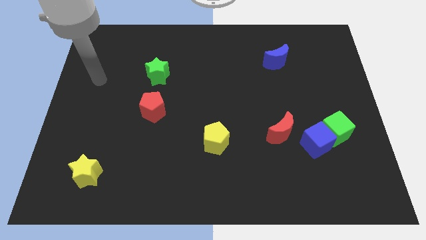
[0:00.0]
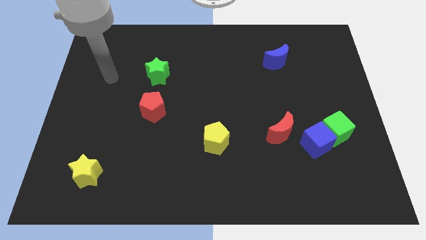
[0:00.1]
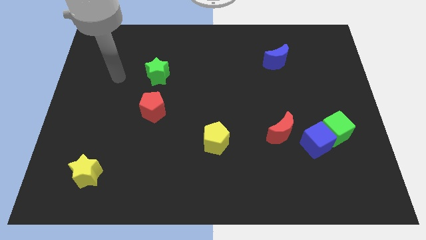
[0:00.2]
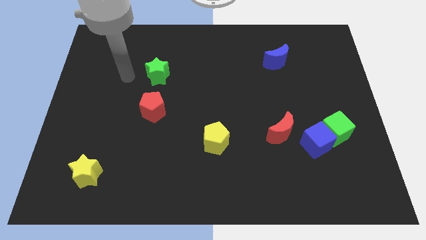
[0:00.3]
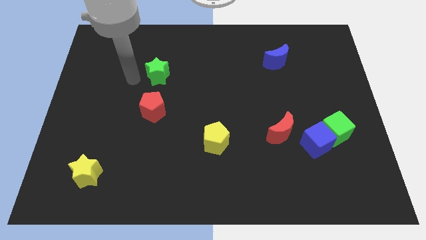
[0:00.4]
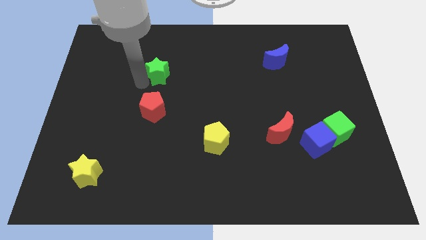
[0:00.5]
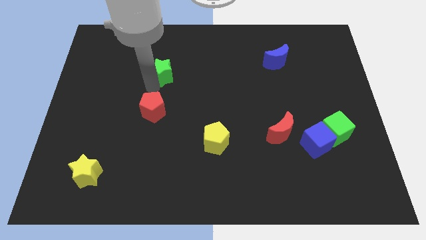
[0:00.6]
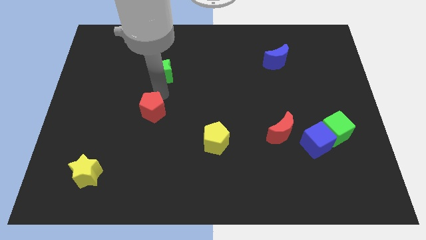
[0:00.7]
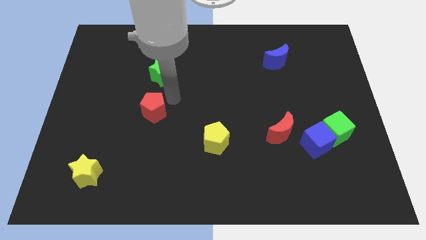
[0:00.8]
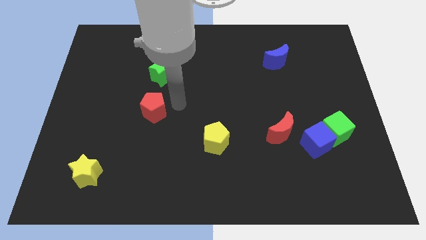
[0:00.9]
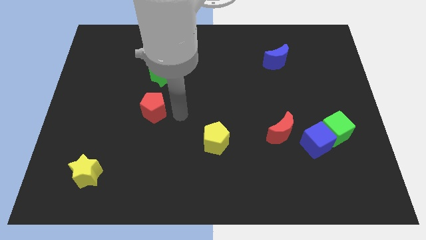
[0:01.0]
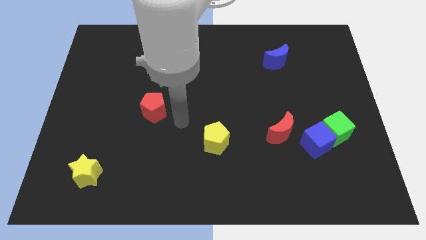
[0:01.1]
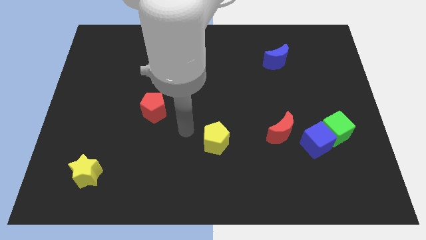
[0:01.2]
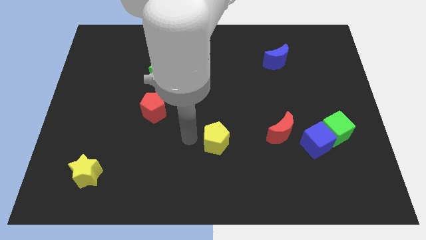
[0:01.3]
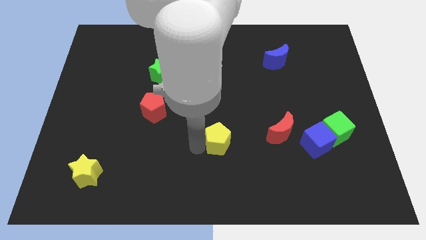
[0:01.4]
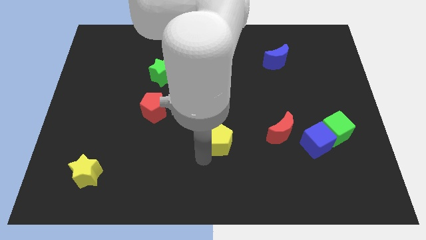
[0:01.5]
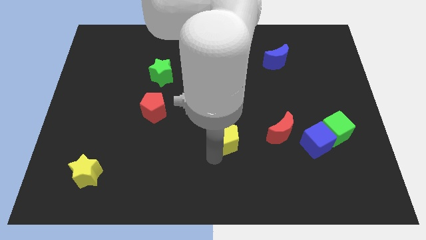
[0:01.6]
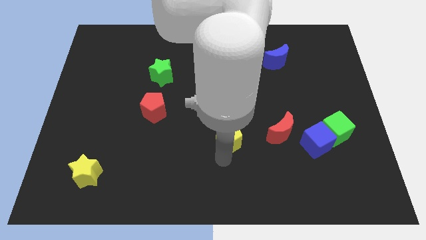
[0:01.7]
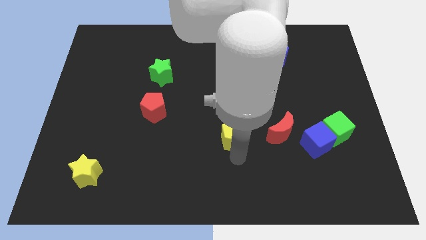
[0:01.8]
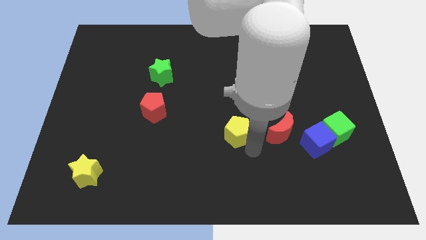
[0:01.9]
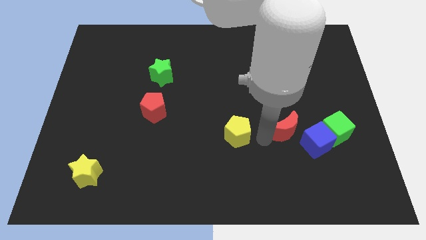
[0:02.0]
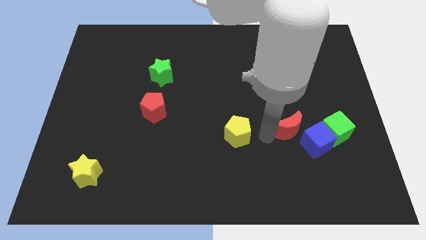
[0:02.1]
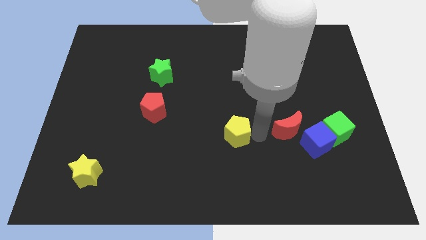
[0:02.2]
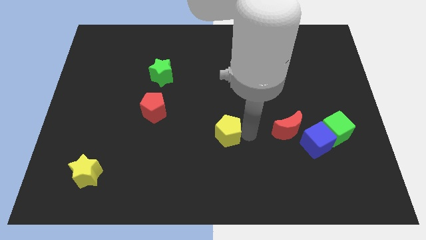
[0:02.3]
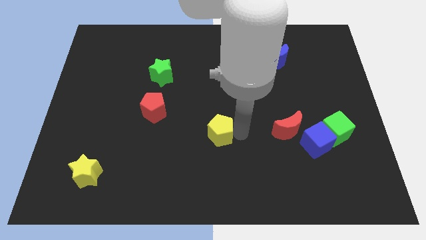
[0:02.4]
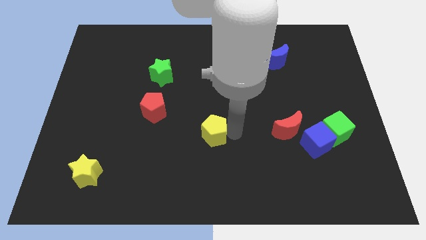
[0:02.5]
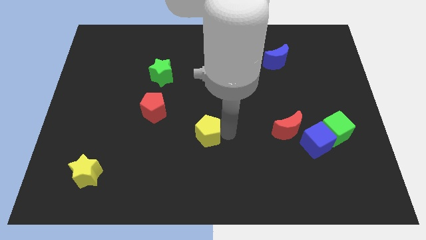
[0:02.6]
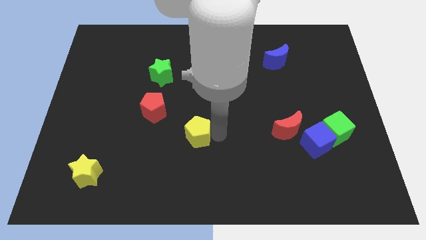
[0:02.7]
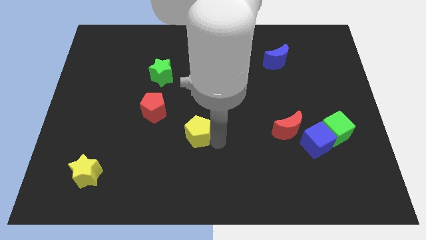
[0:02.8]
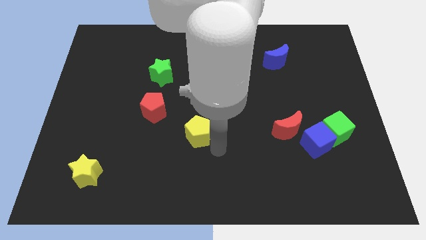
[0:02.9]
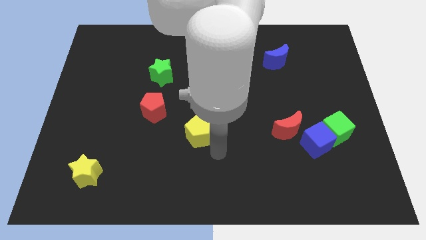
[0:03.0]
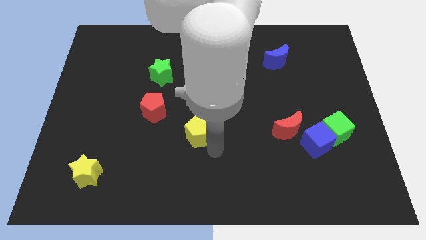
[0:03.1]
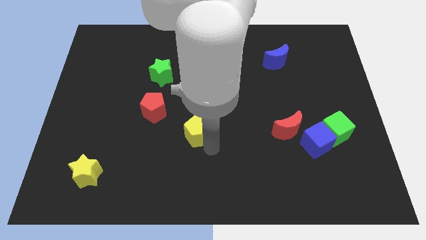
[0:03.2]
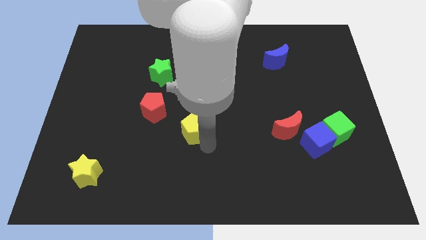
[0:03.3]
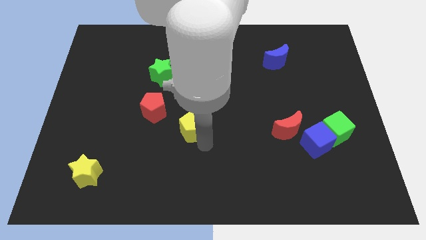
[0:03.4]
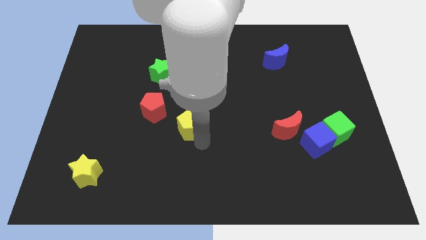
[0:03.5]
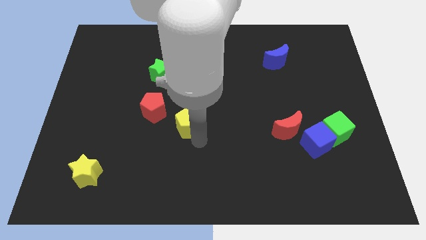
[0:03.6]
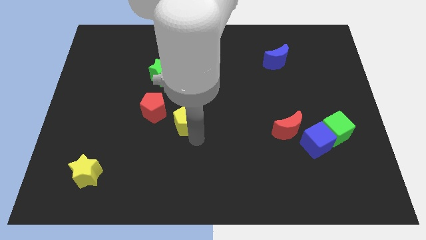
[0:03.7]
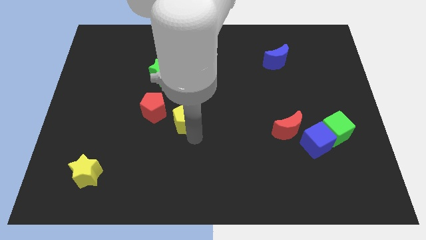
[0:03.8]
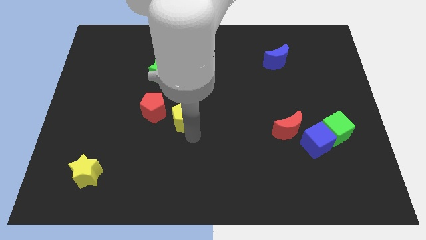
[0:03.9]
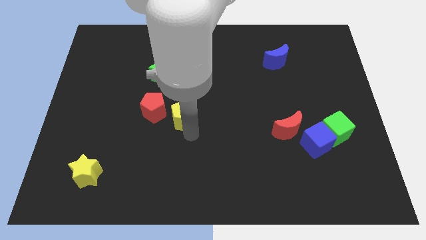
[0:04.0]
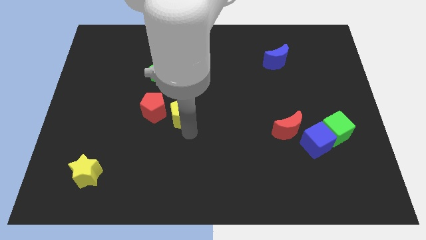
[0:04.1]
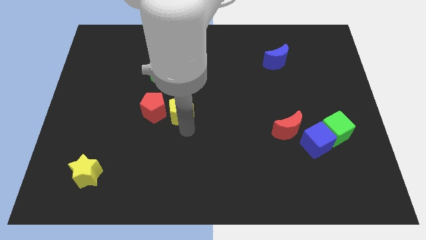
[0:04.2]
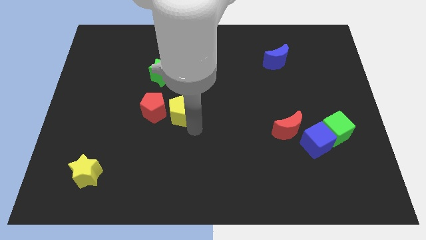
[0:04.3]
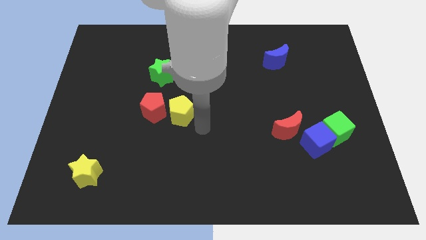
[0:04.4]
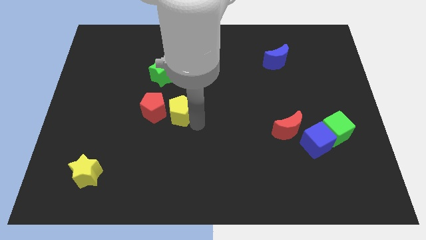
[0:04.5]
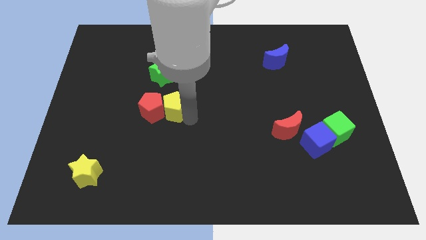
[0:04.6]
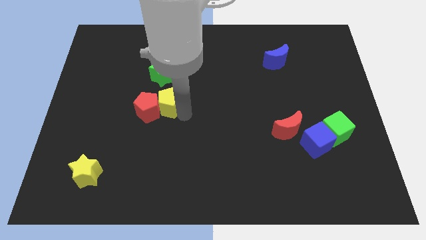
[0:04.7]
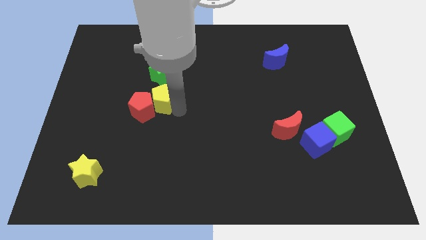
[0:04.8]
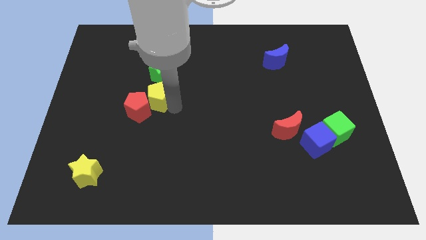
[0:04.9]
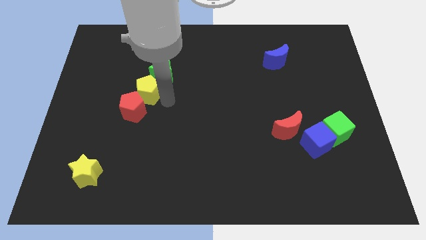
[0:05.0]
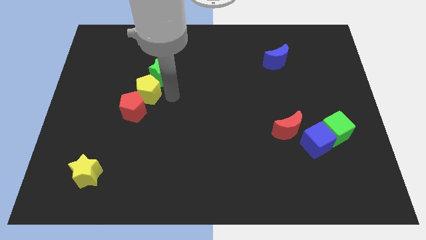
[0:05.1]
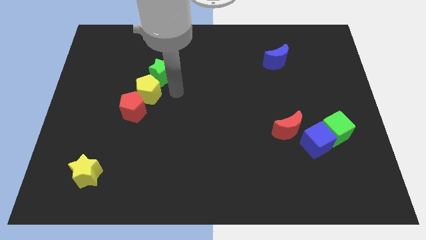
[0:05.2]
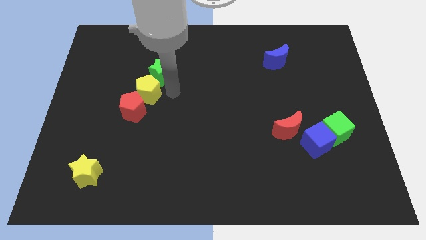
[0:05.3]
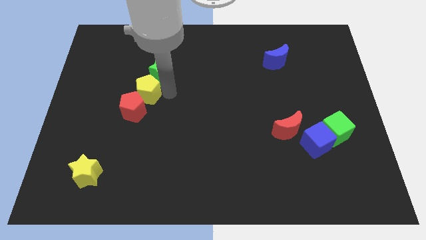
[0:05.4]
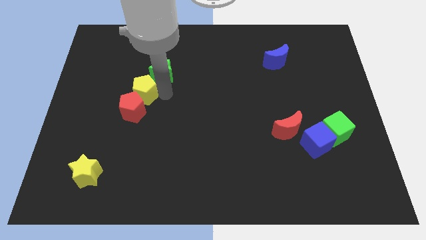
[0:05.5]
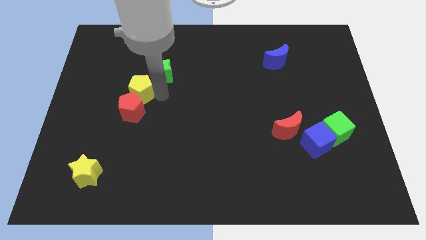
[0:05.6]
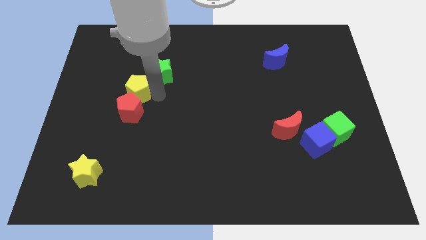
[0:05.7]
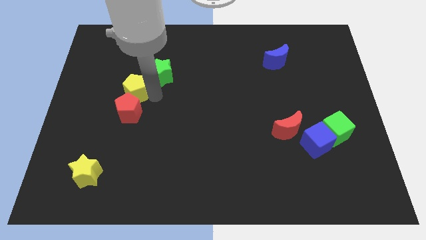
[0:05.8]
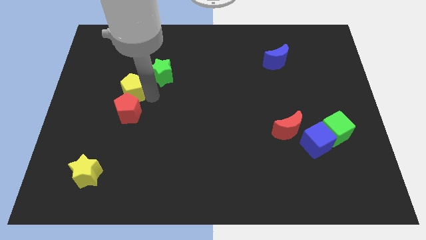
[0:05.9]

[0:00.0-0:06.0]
put the yellow pentagon diagonally up and to the left of the red pentagon

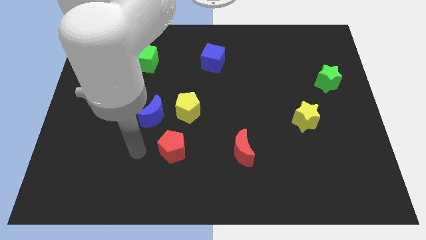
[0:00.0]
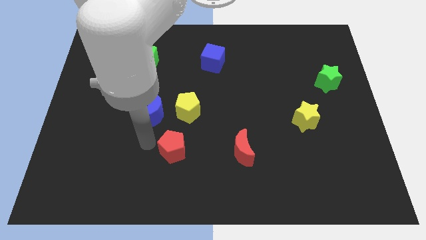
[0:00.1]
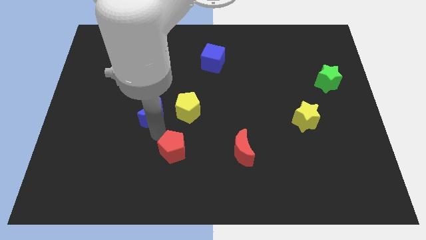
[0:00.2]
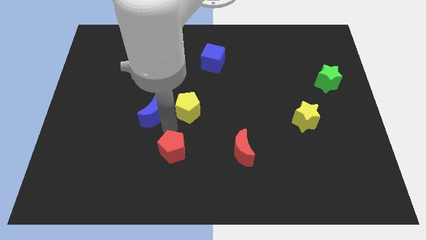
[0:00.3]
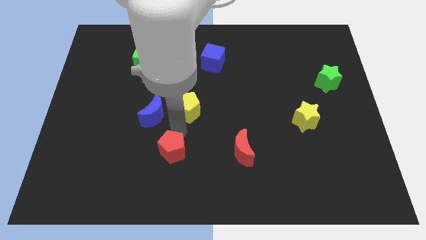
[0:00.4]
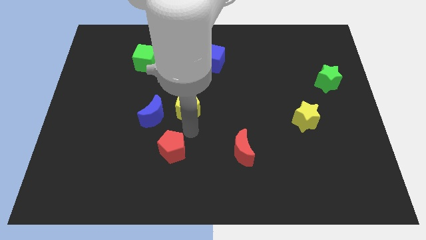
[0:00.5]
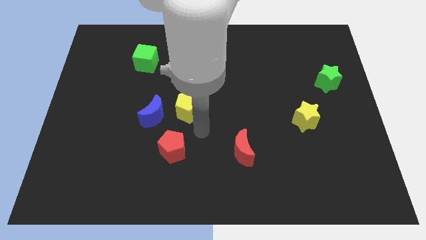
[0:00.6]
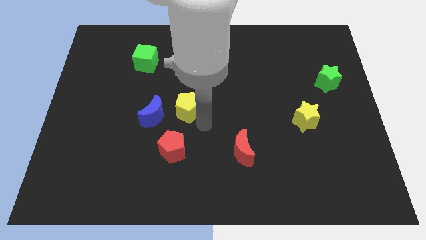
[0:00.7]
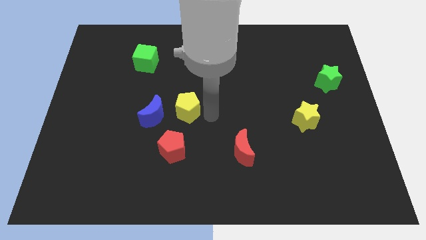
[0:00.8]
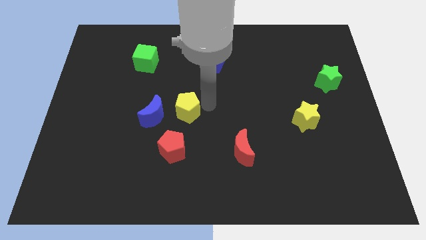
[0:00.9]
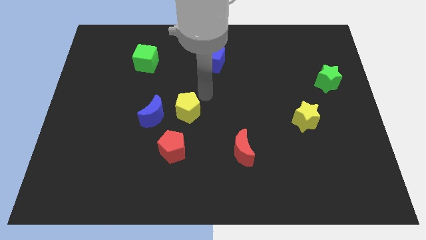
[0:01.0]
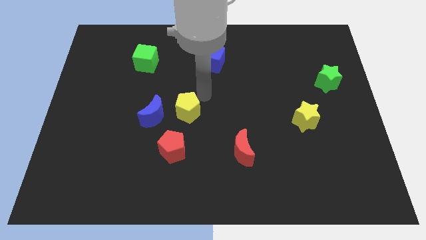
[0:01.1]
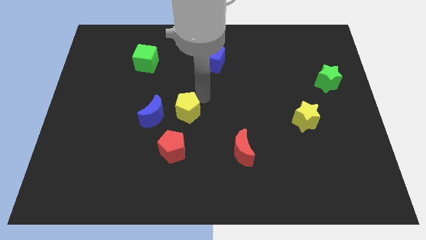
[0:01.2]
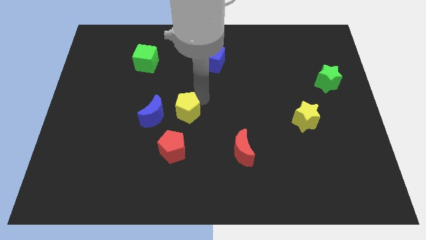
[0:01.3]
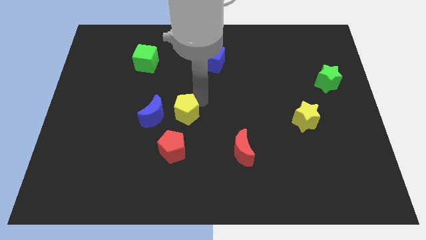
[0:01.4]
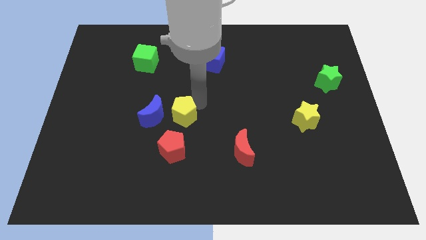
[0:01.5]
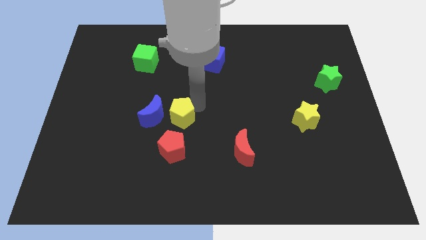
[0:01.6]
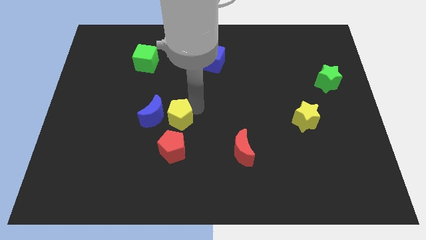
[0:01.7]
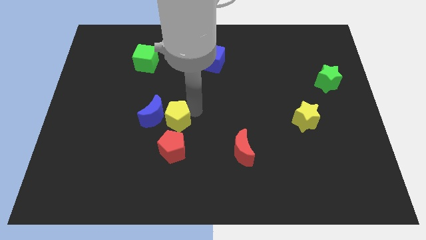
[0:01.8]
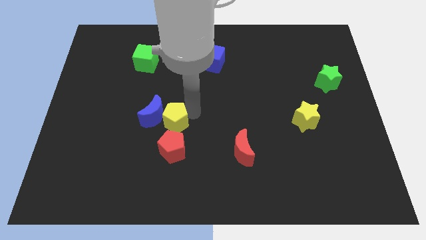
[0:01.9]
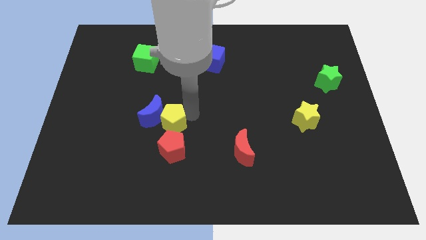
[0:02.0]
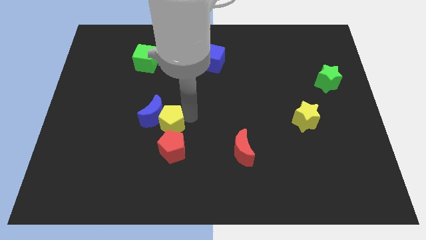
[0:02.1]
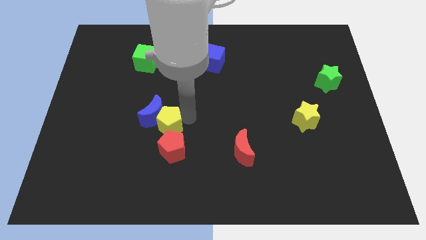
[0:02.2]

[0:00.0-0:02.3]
slide the yellow pentagon to the bottom side of the blue moon

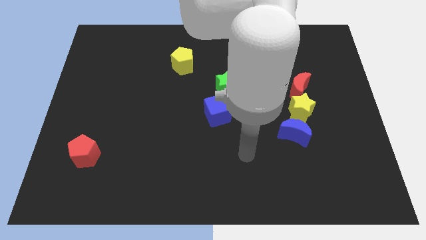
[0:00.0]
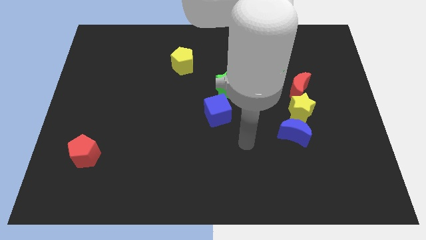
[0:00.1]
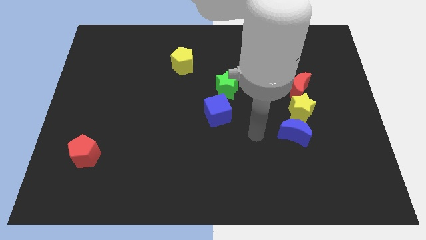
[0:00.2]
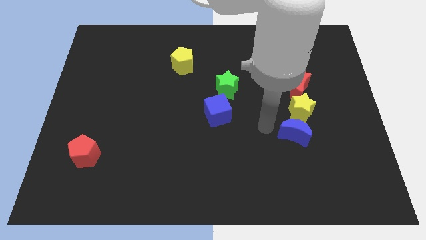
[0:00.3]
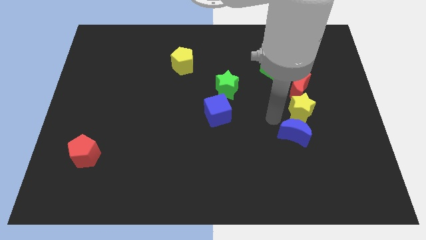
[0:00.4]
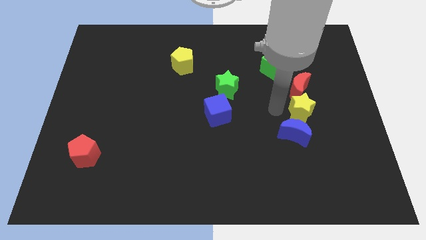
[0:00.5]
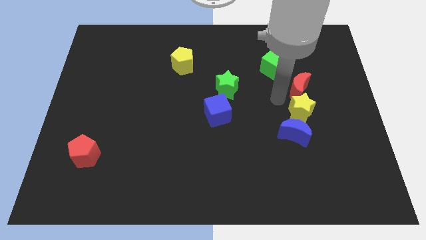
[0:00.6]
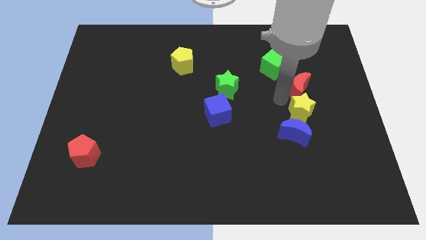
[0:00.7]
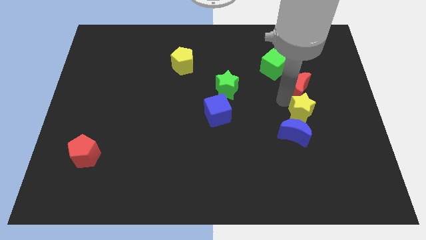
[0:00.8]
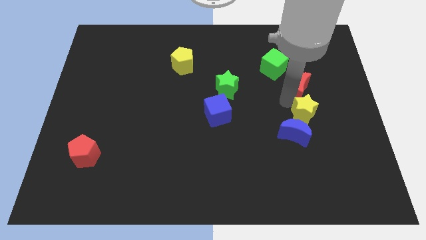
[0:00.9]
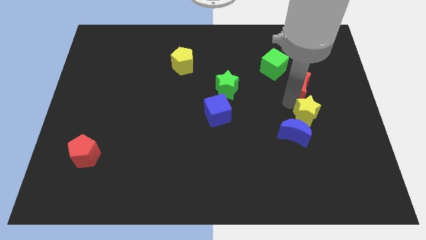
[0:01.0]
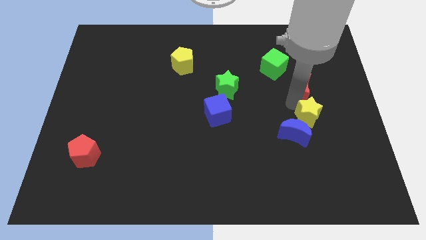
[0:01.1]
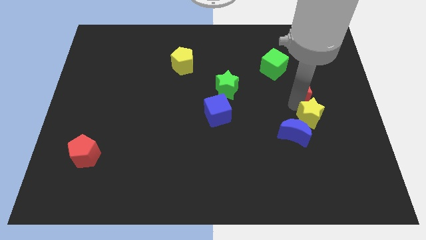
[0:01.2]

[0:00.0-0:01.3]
move the yellow star right of the blue moon
